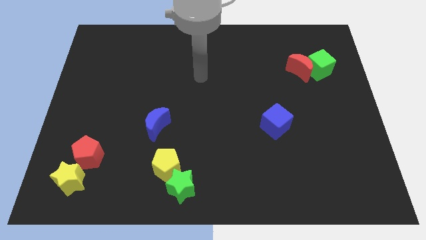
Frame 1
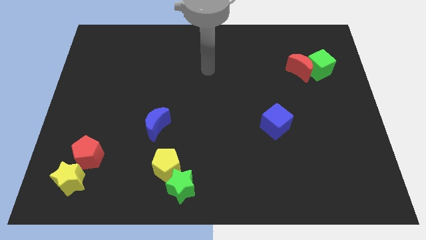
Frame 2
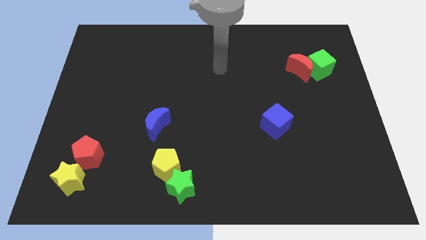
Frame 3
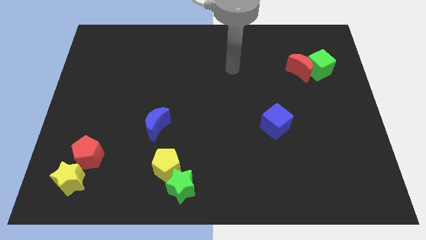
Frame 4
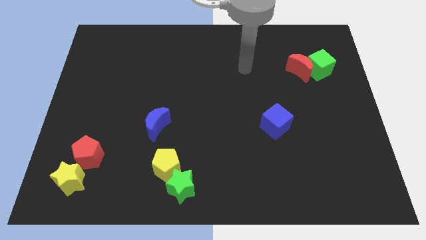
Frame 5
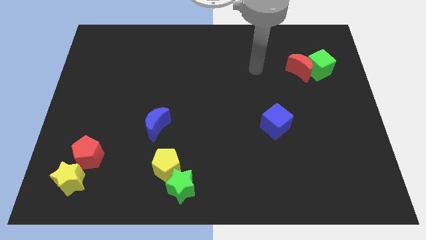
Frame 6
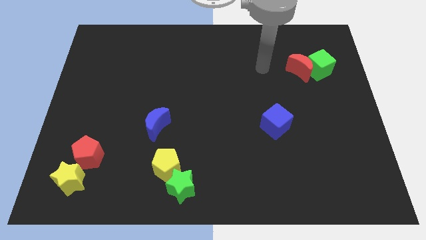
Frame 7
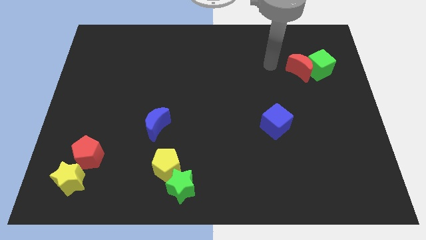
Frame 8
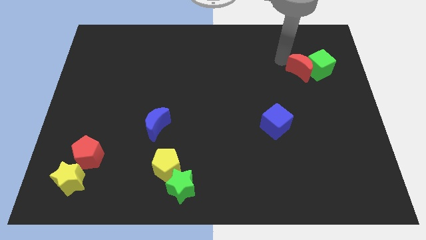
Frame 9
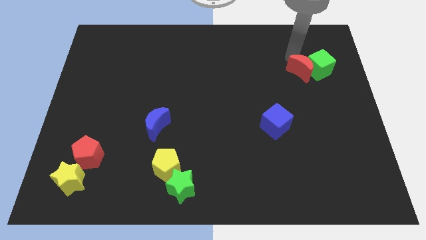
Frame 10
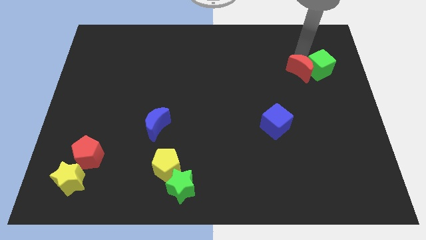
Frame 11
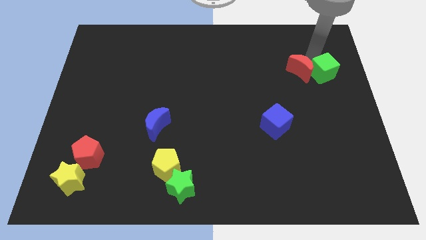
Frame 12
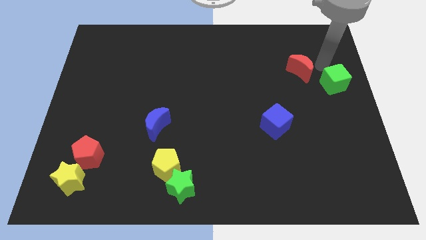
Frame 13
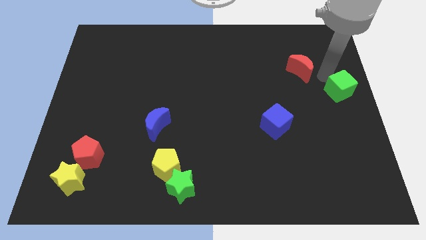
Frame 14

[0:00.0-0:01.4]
move the red moon away from the green cube

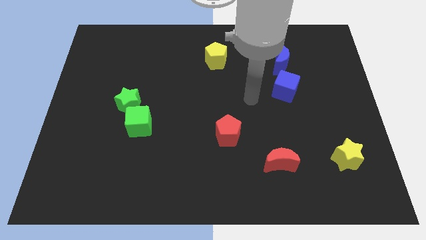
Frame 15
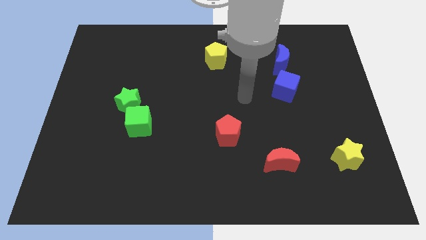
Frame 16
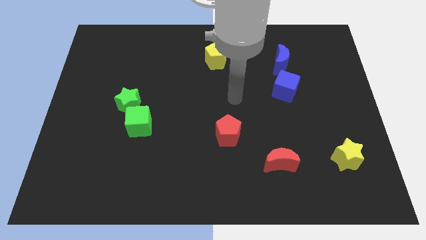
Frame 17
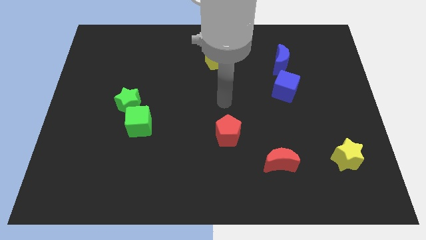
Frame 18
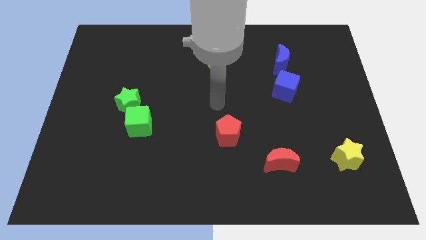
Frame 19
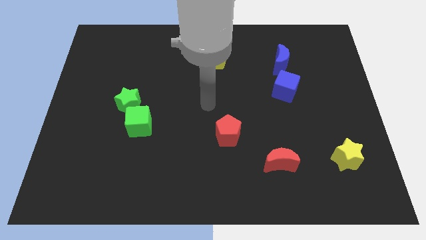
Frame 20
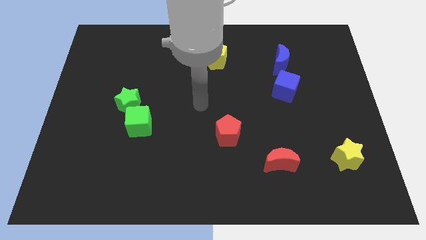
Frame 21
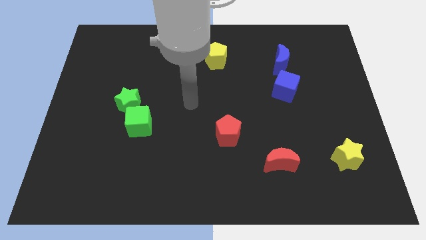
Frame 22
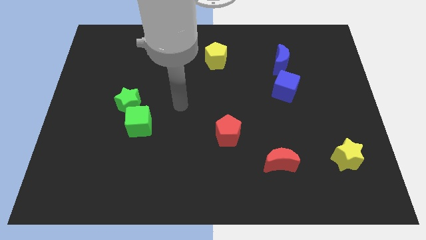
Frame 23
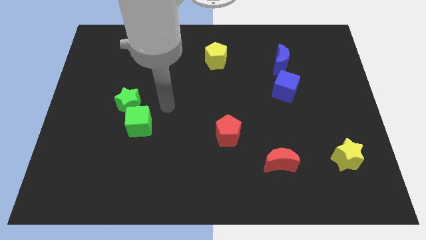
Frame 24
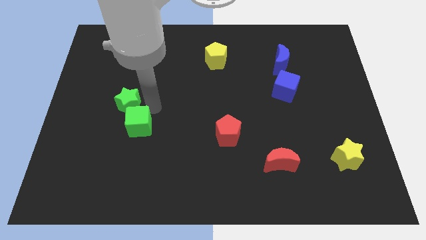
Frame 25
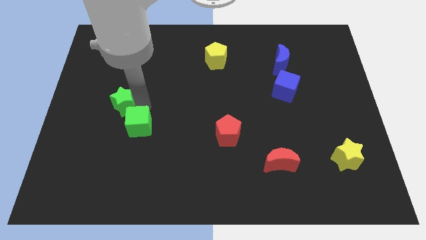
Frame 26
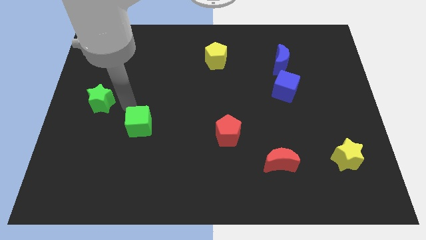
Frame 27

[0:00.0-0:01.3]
pull the green cube apart from the green star

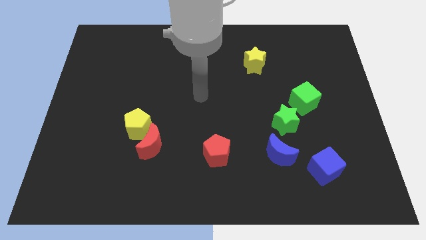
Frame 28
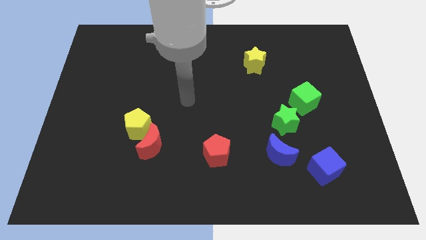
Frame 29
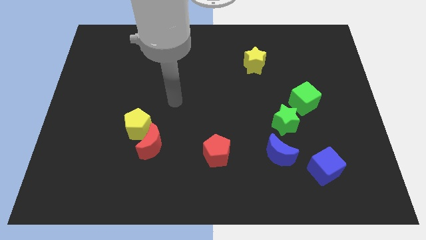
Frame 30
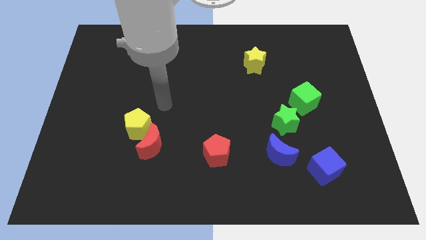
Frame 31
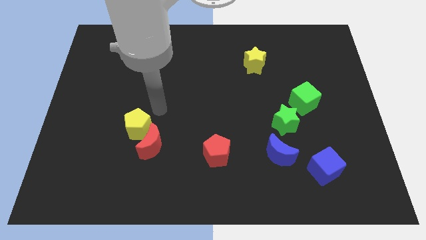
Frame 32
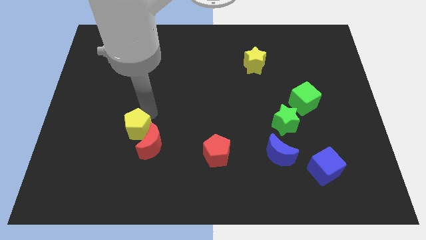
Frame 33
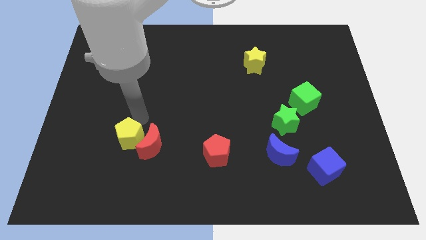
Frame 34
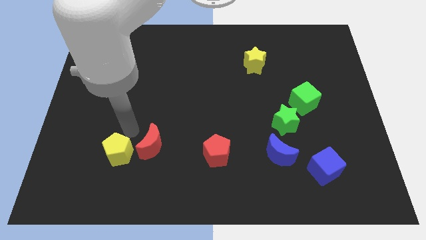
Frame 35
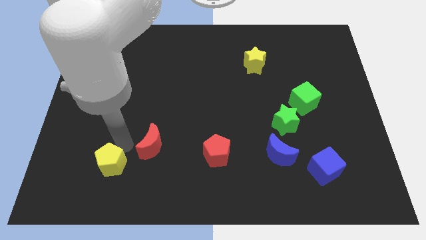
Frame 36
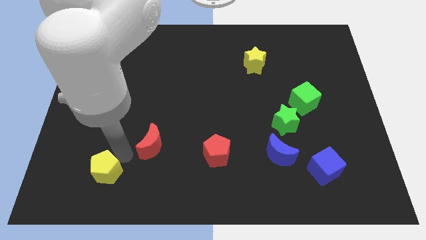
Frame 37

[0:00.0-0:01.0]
move the red moon away from the yellow pentagon

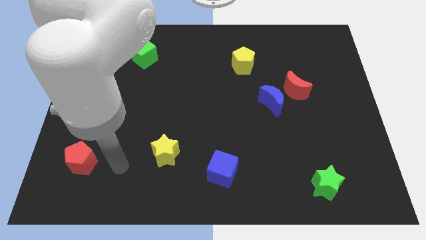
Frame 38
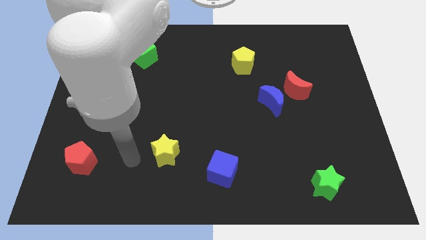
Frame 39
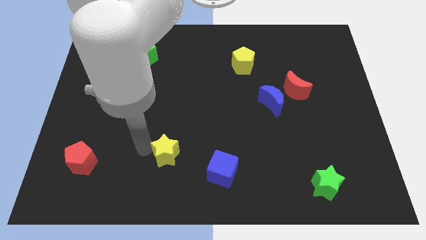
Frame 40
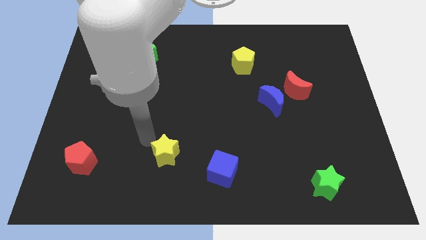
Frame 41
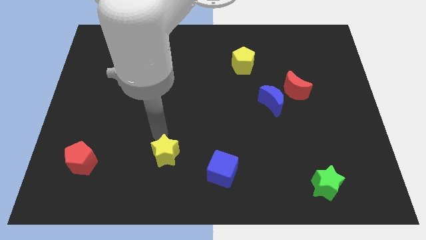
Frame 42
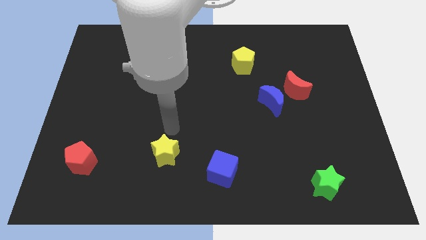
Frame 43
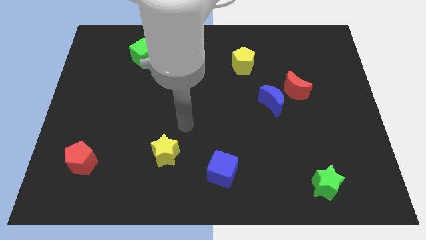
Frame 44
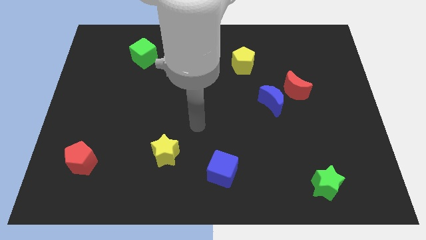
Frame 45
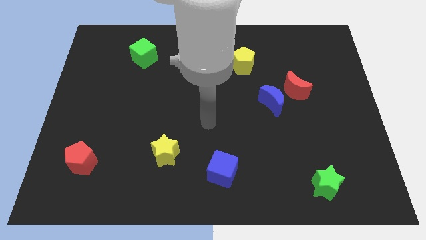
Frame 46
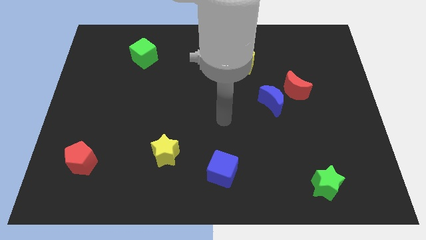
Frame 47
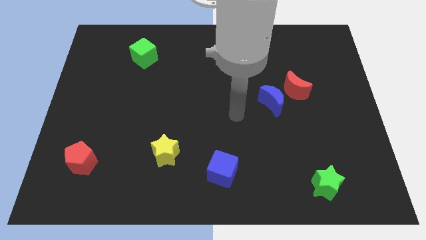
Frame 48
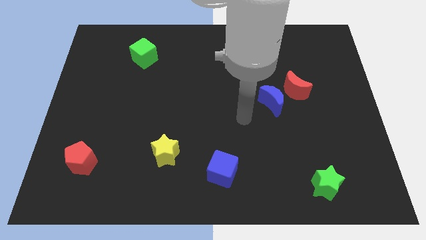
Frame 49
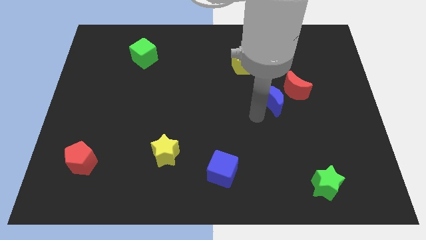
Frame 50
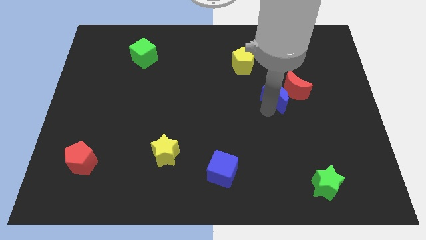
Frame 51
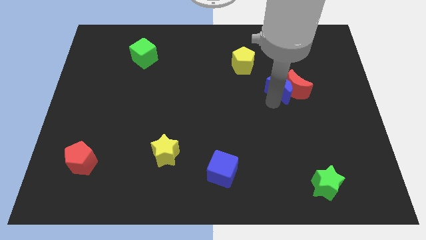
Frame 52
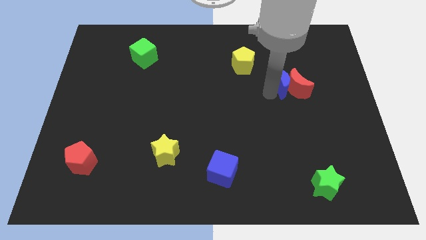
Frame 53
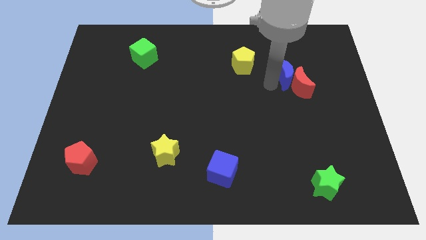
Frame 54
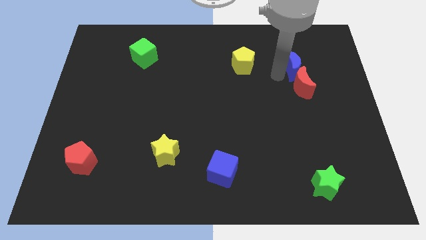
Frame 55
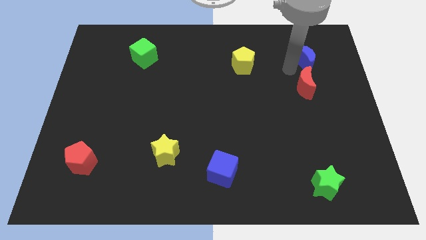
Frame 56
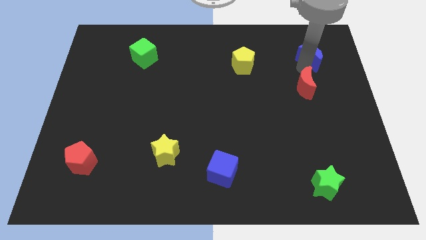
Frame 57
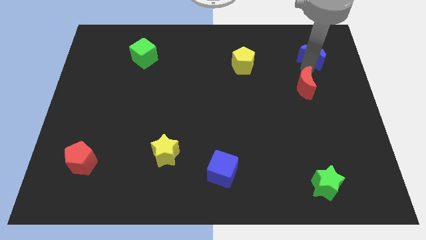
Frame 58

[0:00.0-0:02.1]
move the red moon away from the blue moon

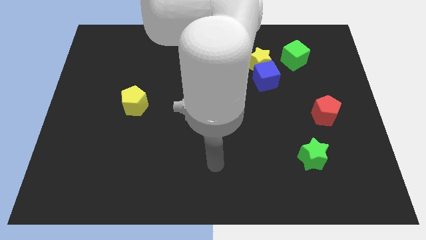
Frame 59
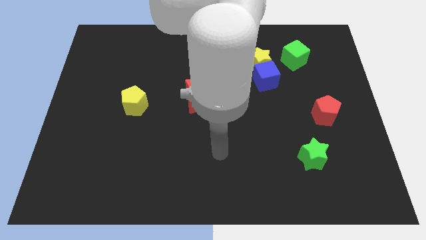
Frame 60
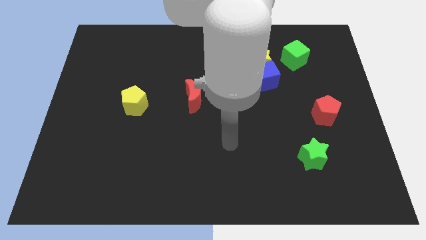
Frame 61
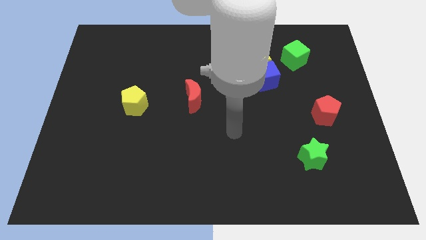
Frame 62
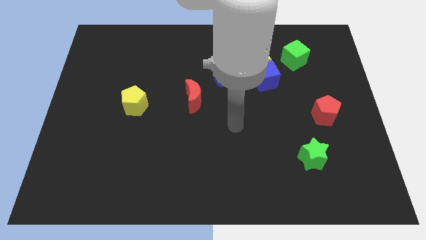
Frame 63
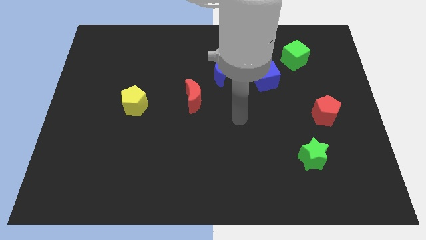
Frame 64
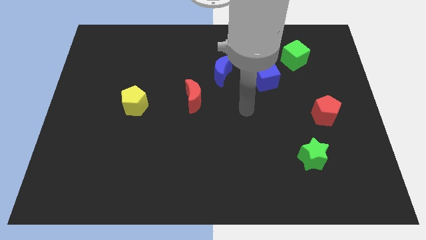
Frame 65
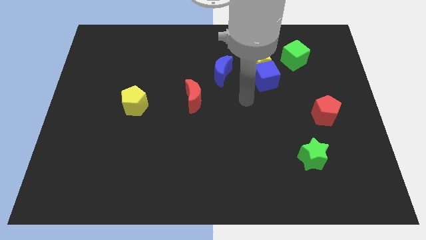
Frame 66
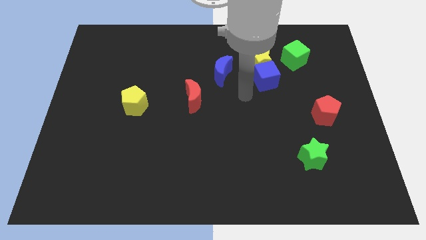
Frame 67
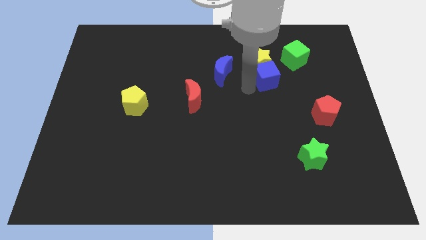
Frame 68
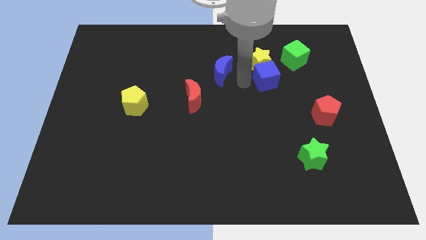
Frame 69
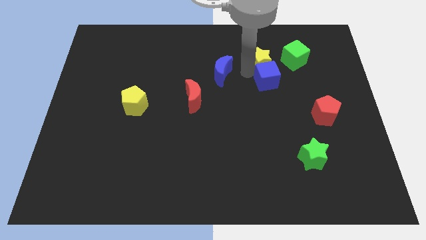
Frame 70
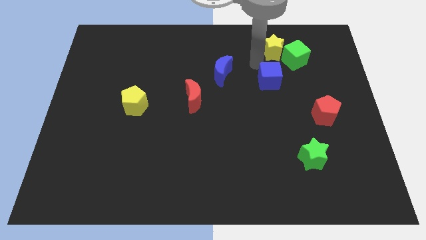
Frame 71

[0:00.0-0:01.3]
pull the blue cube apart from the yellow star

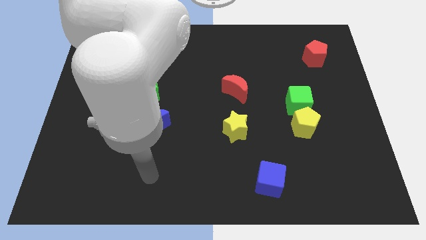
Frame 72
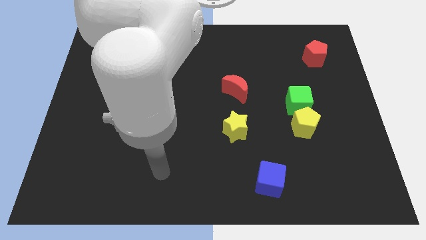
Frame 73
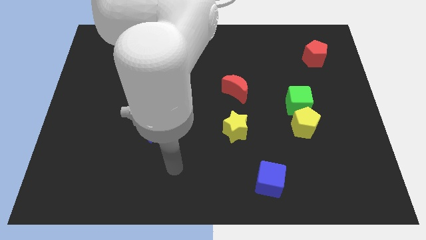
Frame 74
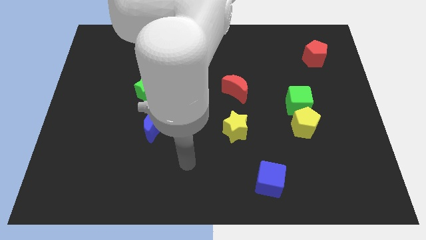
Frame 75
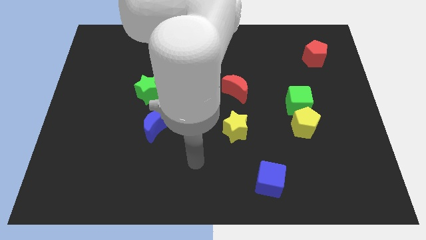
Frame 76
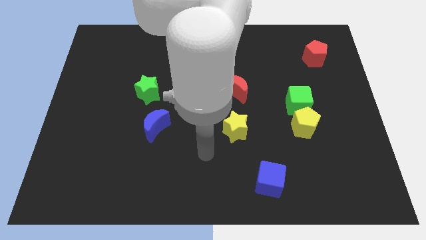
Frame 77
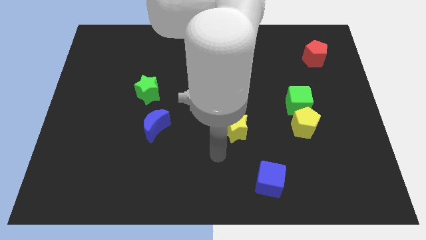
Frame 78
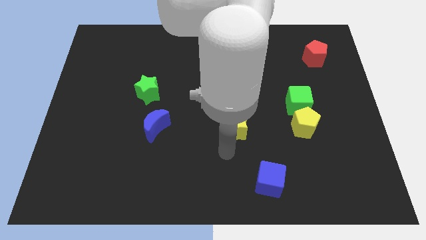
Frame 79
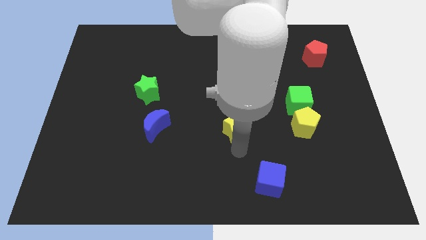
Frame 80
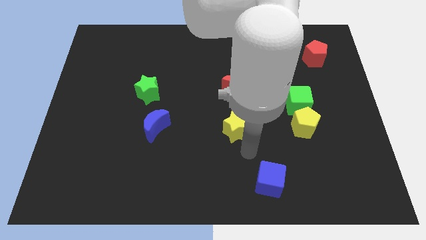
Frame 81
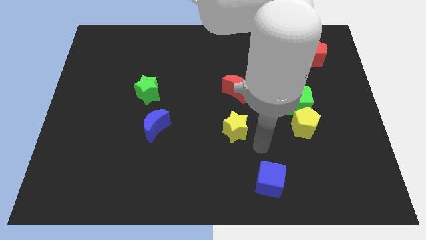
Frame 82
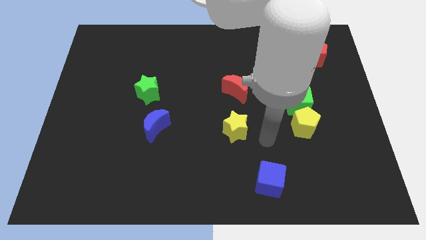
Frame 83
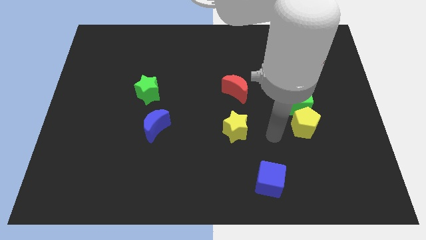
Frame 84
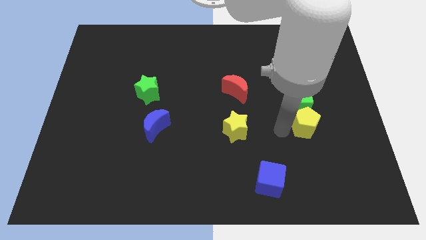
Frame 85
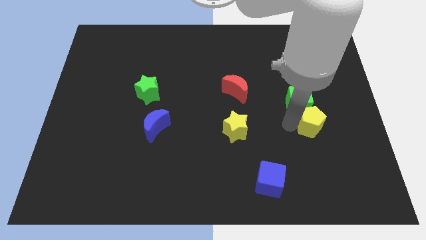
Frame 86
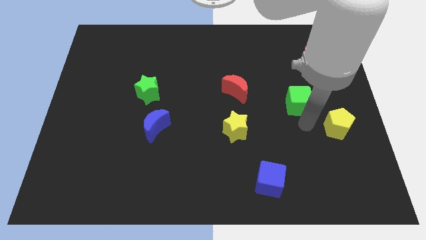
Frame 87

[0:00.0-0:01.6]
move the green cube away from the yellow pentagon

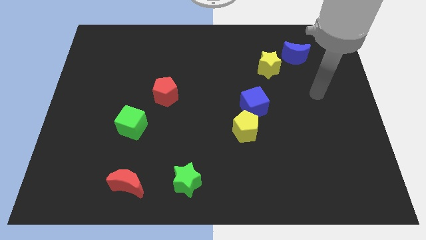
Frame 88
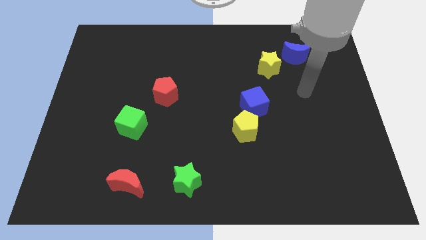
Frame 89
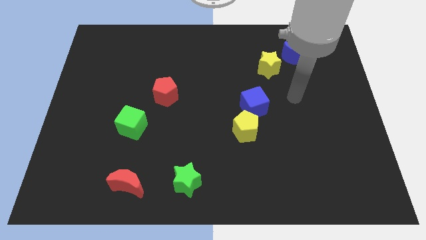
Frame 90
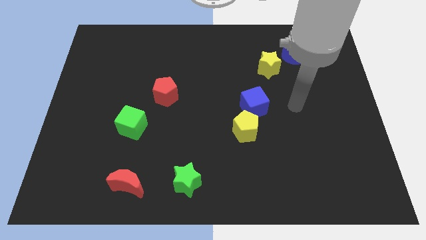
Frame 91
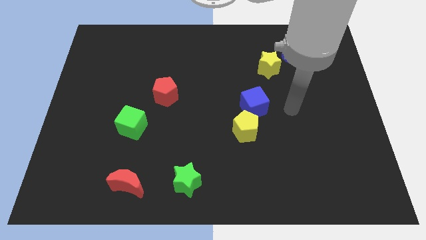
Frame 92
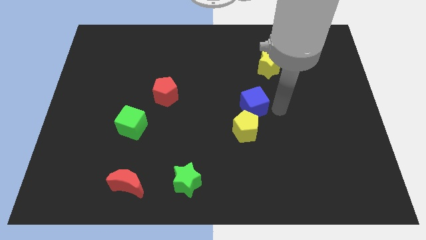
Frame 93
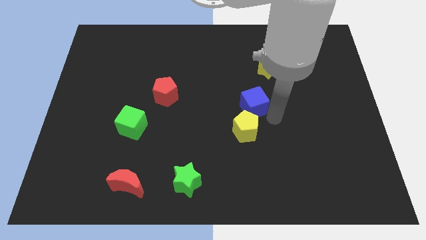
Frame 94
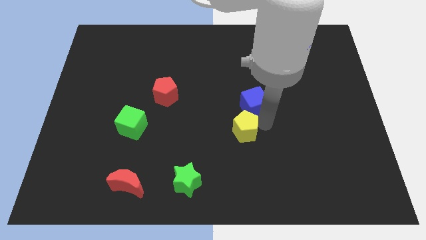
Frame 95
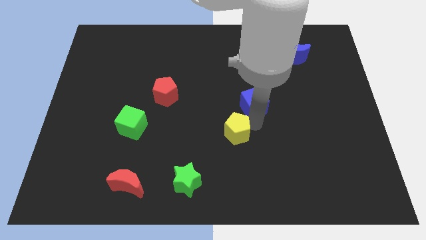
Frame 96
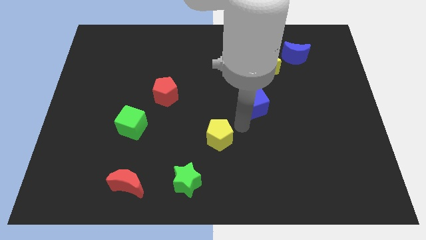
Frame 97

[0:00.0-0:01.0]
pull the blue cube apart from the yellow pentagon
